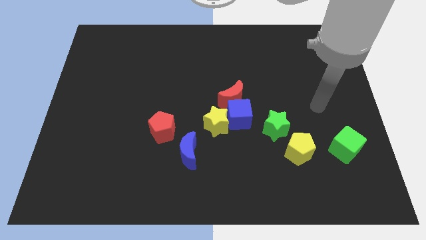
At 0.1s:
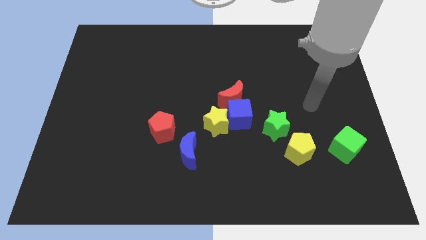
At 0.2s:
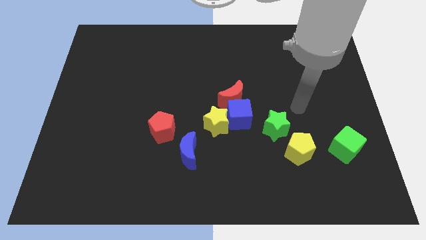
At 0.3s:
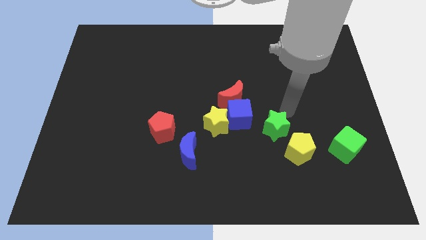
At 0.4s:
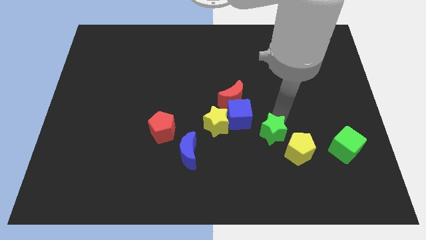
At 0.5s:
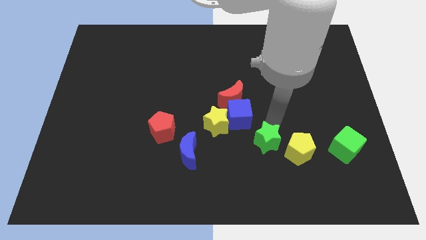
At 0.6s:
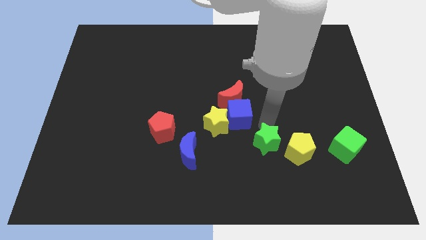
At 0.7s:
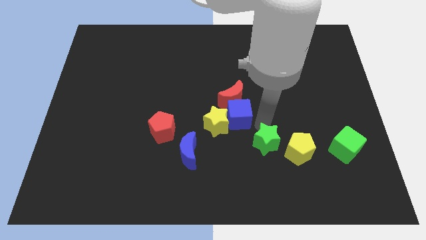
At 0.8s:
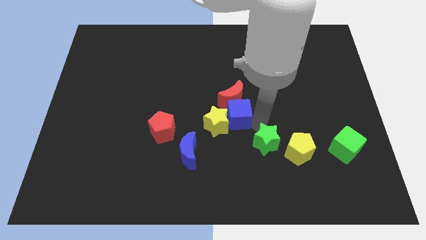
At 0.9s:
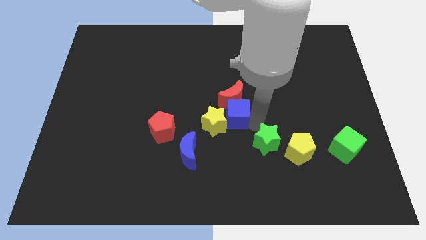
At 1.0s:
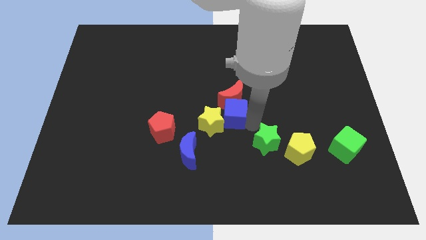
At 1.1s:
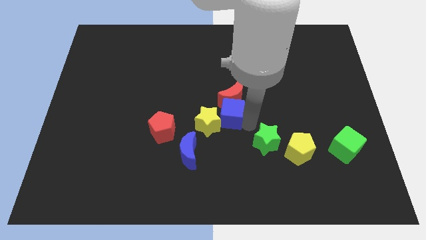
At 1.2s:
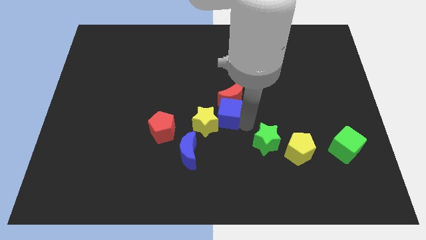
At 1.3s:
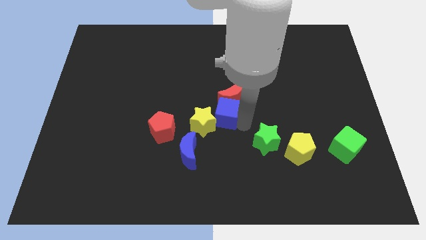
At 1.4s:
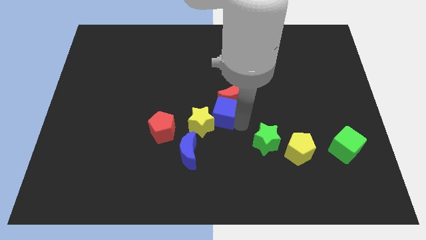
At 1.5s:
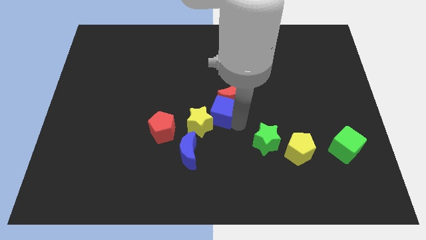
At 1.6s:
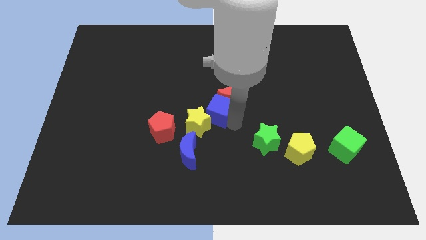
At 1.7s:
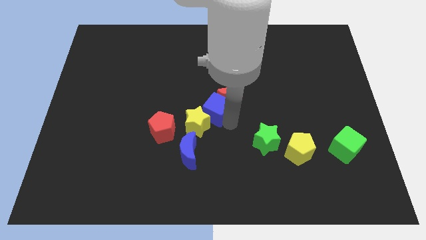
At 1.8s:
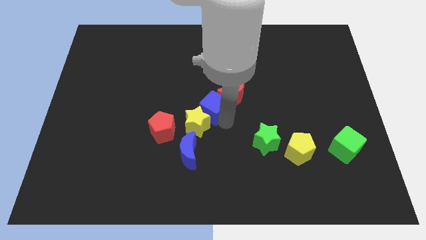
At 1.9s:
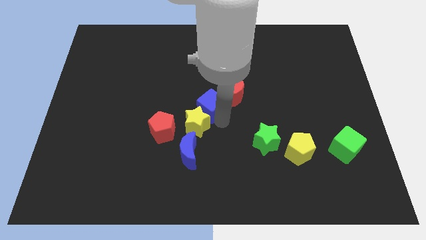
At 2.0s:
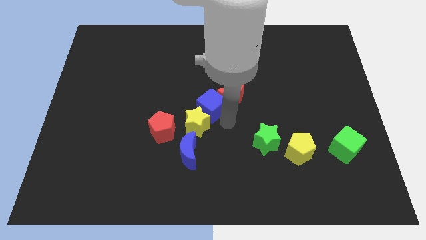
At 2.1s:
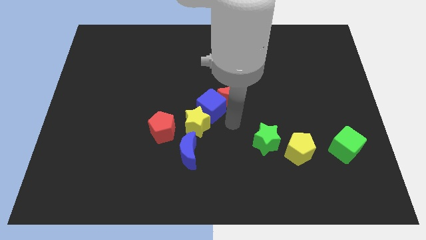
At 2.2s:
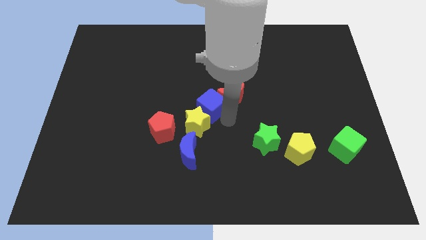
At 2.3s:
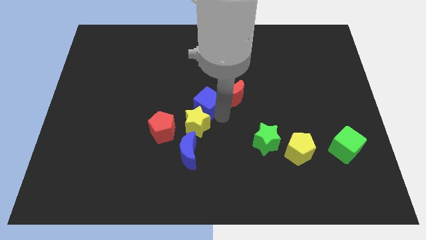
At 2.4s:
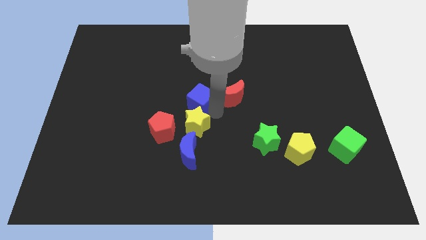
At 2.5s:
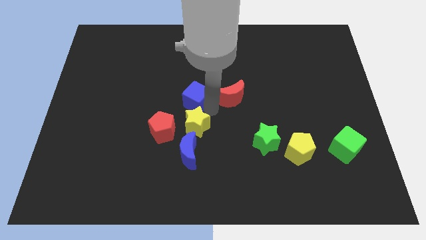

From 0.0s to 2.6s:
pull the blue cube apart from the group of blocks

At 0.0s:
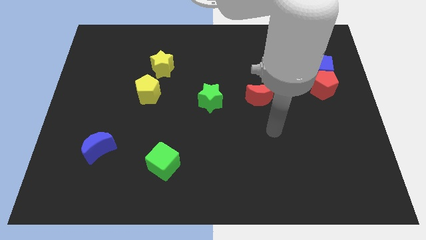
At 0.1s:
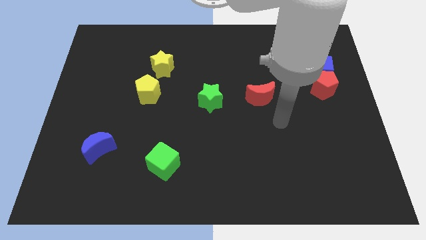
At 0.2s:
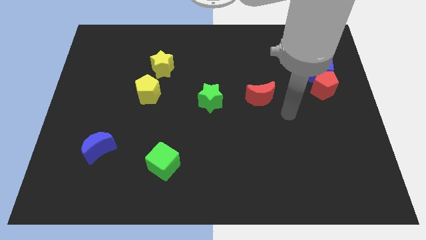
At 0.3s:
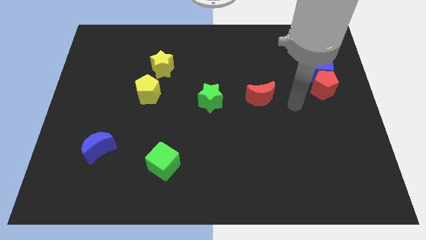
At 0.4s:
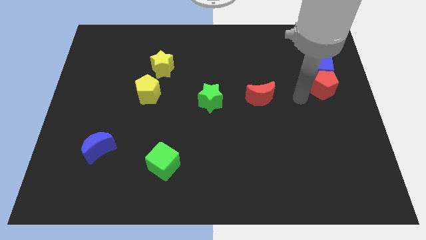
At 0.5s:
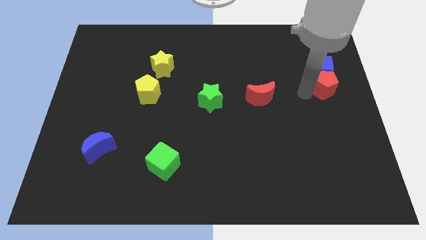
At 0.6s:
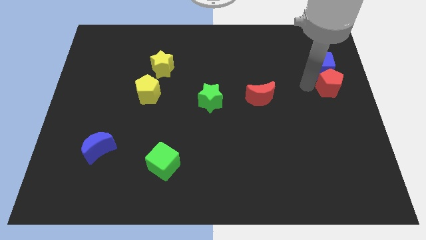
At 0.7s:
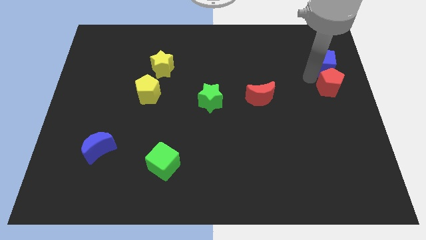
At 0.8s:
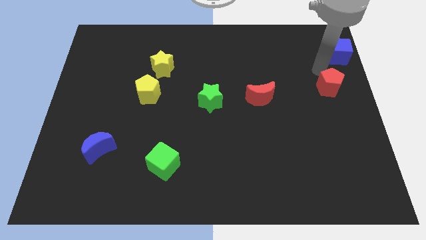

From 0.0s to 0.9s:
separate the red pentagon from the blue cube

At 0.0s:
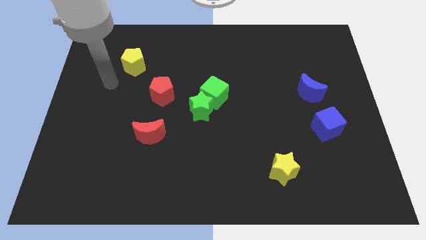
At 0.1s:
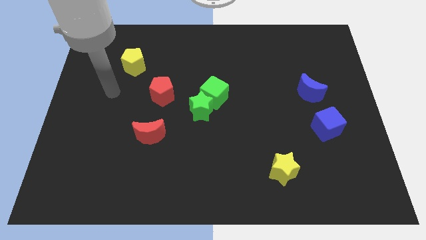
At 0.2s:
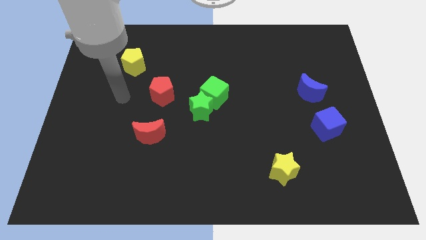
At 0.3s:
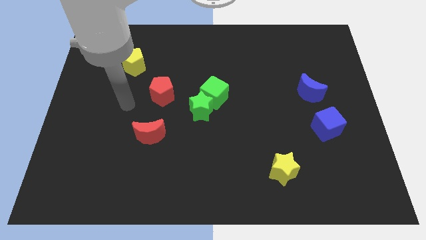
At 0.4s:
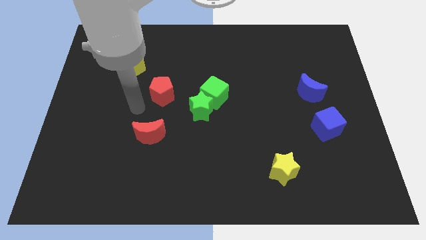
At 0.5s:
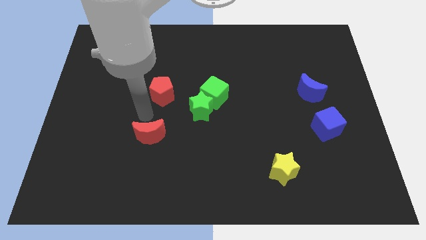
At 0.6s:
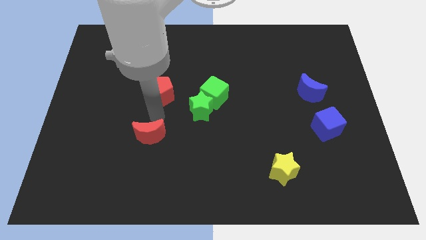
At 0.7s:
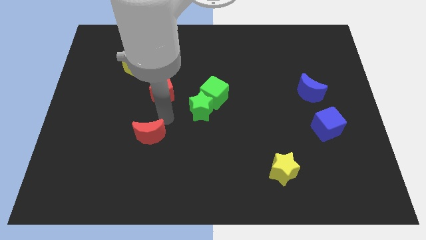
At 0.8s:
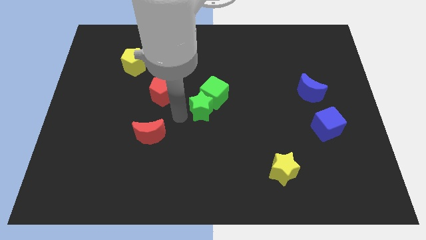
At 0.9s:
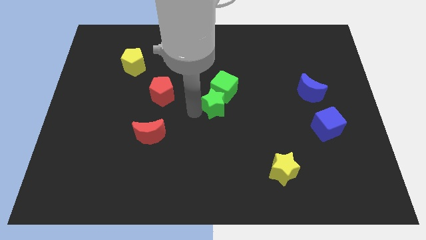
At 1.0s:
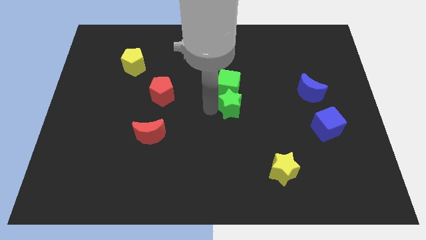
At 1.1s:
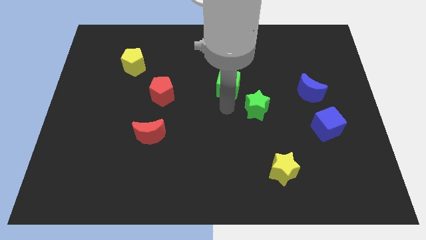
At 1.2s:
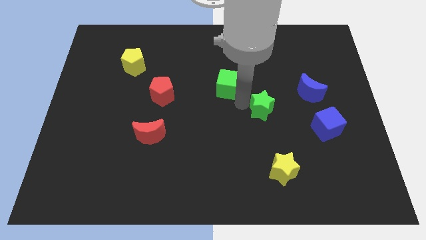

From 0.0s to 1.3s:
move the green cube away from the green star

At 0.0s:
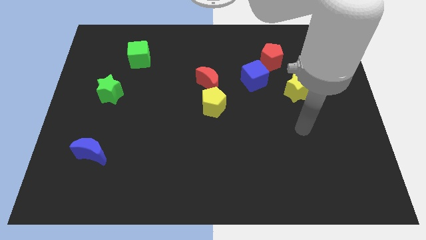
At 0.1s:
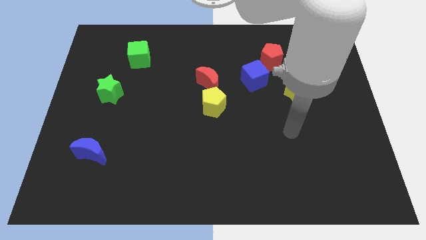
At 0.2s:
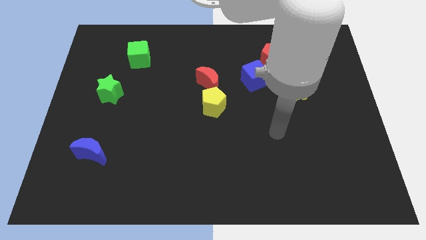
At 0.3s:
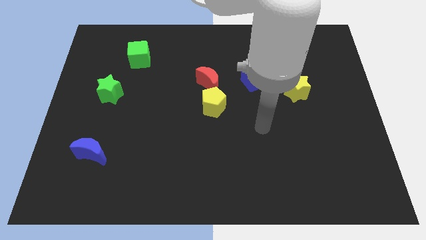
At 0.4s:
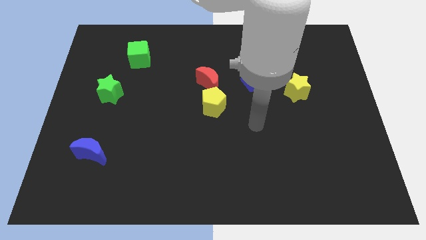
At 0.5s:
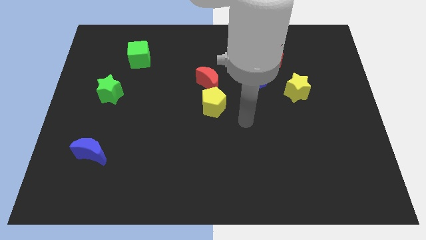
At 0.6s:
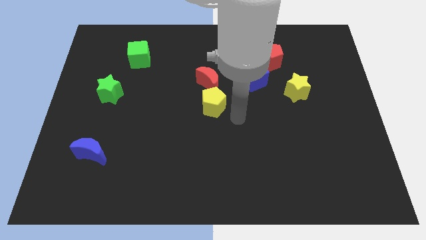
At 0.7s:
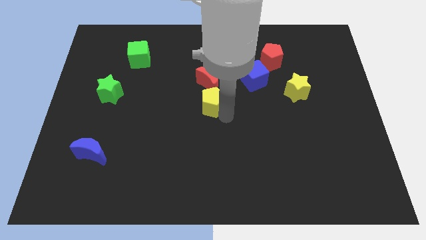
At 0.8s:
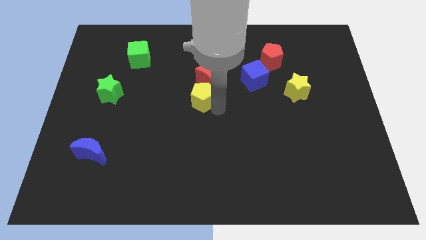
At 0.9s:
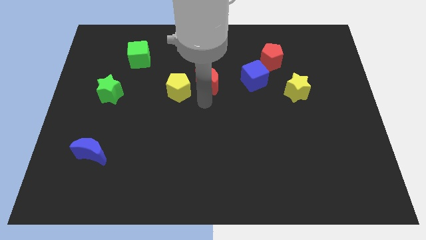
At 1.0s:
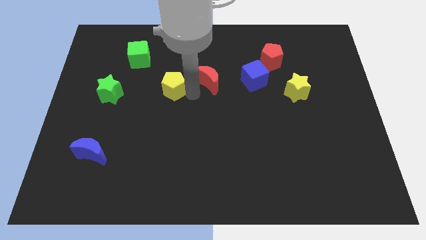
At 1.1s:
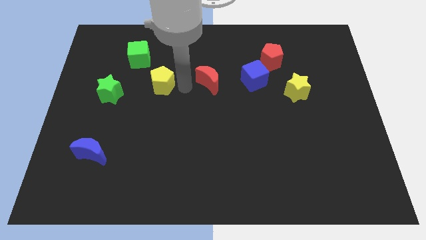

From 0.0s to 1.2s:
pull the red moon apart from the yellow pentagon

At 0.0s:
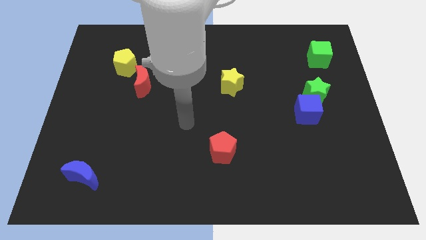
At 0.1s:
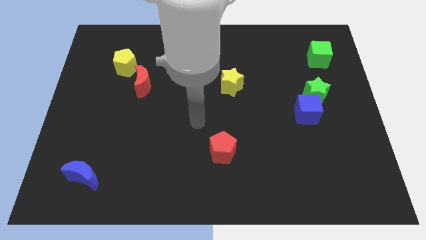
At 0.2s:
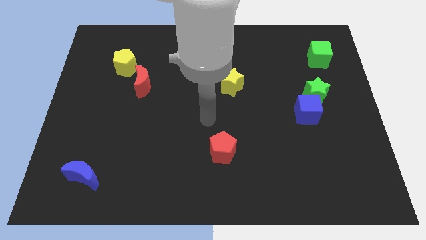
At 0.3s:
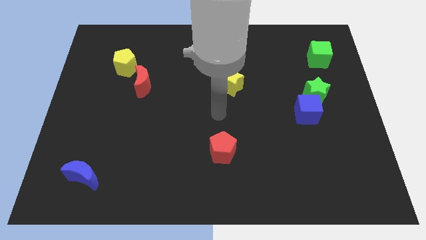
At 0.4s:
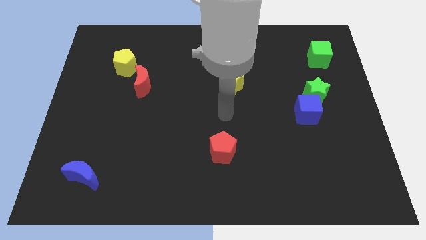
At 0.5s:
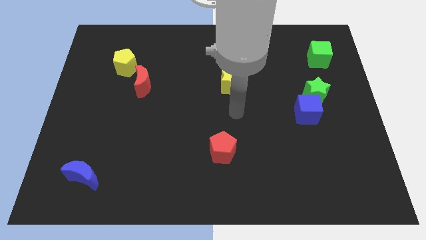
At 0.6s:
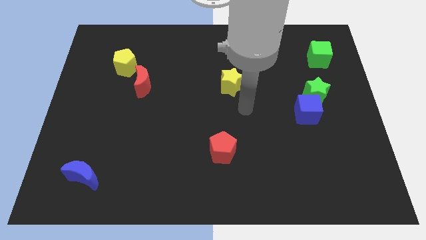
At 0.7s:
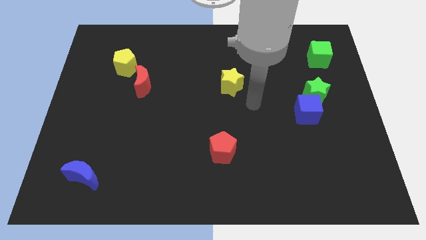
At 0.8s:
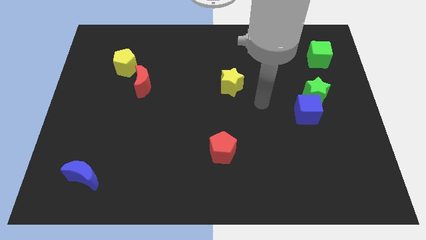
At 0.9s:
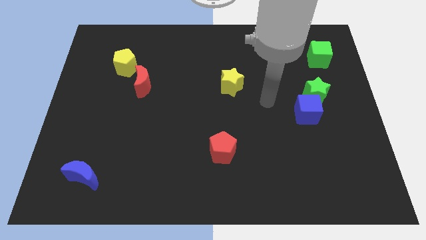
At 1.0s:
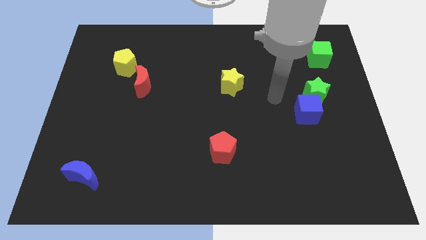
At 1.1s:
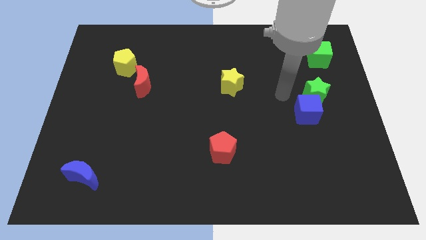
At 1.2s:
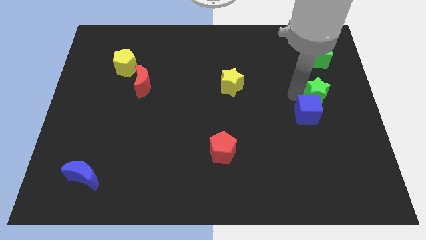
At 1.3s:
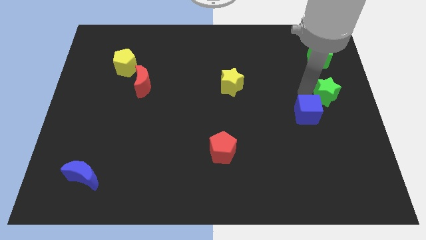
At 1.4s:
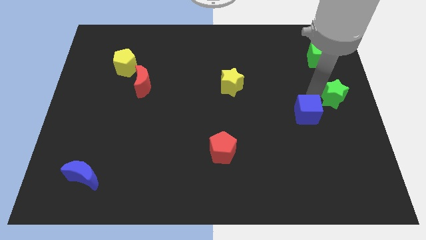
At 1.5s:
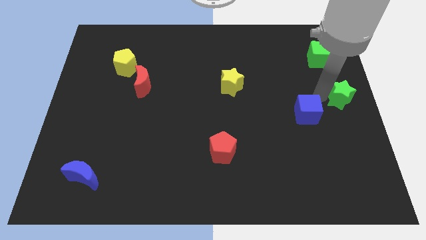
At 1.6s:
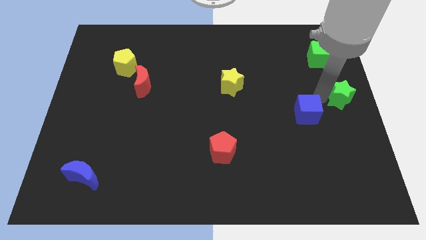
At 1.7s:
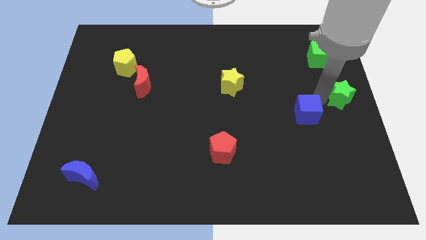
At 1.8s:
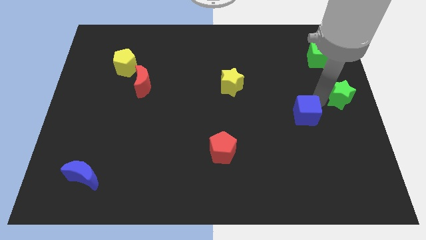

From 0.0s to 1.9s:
pull the blue cube apart from the green star

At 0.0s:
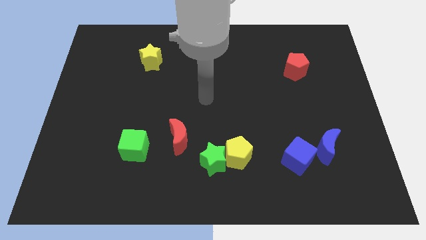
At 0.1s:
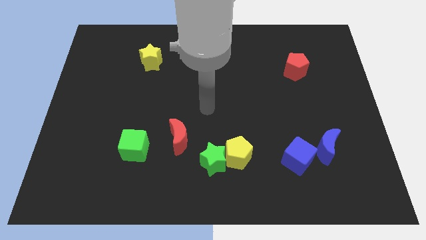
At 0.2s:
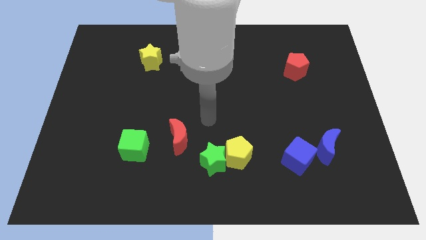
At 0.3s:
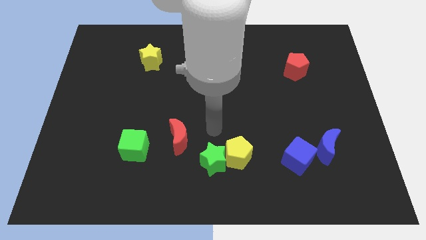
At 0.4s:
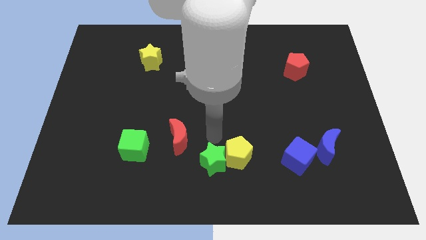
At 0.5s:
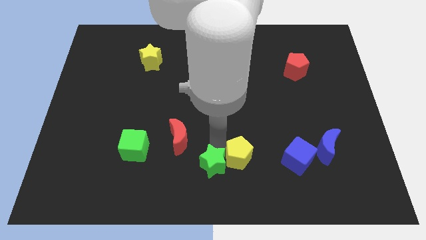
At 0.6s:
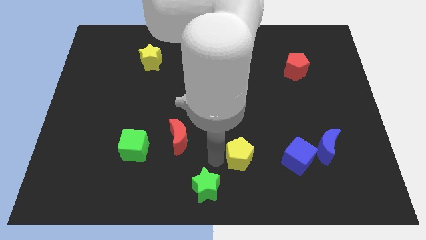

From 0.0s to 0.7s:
separate the yellow pentagon from the green star

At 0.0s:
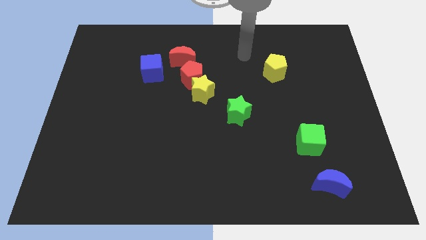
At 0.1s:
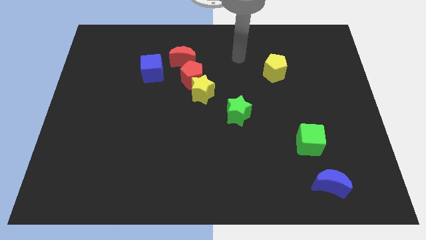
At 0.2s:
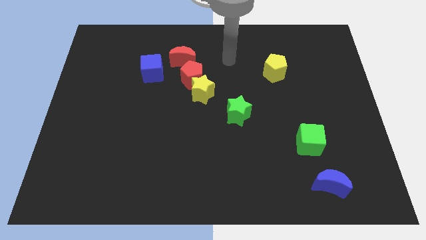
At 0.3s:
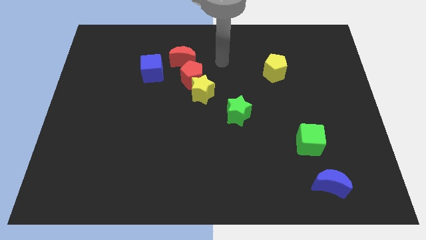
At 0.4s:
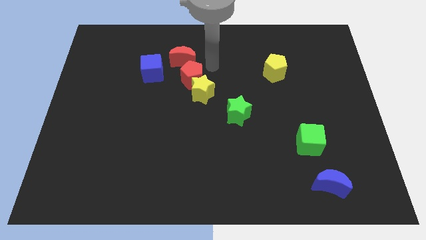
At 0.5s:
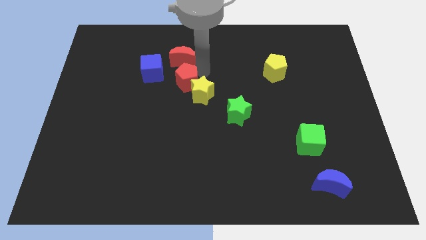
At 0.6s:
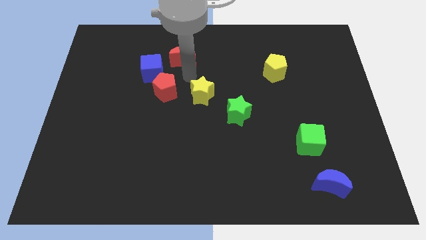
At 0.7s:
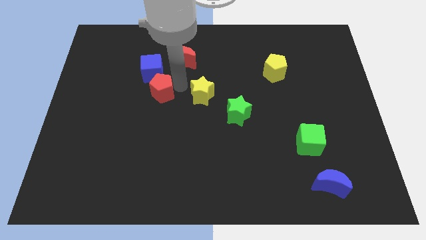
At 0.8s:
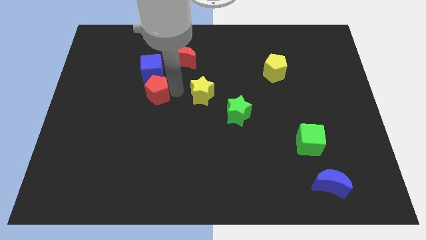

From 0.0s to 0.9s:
pull the yellow star apart from the red pentagon
